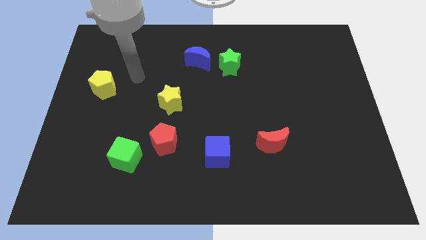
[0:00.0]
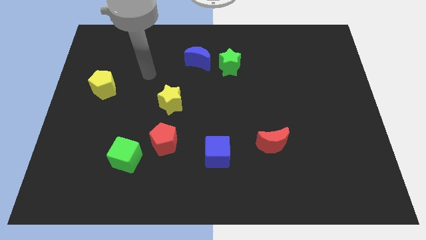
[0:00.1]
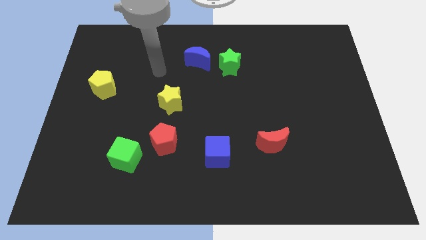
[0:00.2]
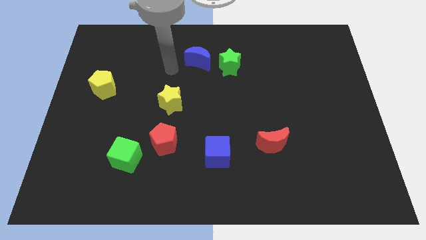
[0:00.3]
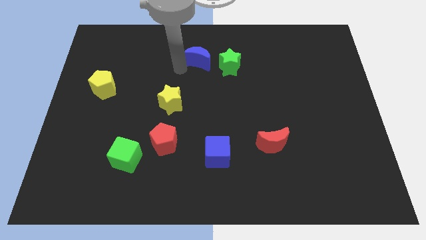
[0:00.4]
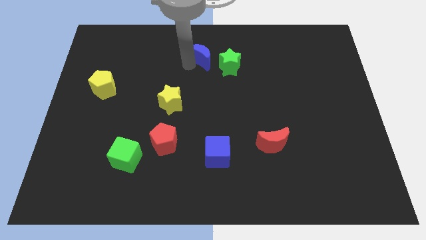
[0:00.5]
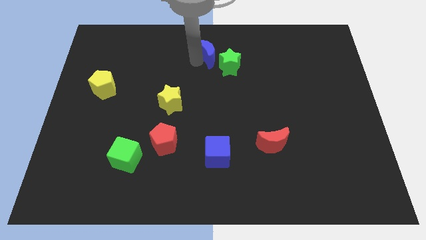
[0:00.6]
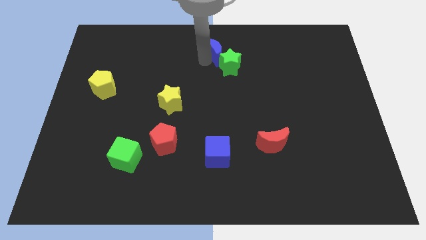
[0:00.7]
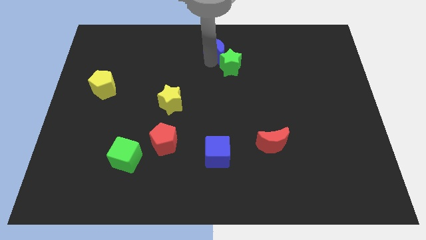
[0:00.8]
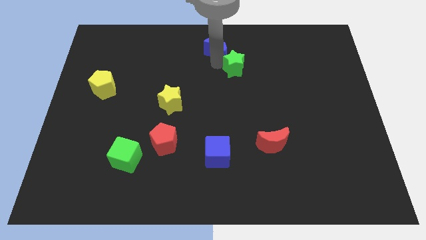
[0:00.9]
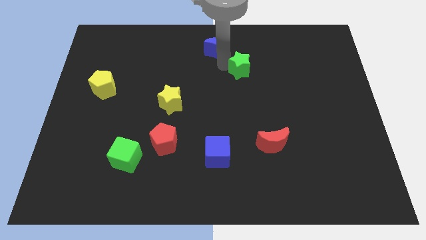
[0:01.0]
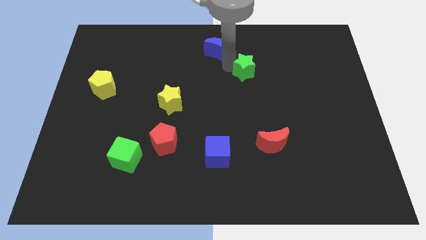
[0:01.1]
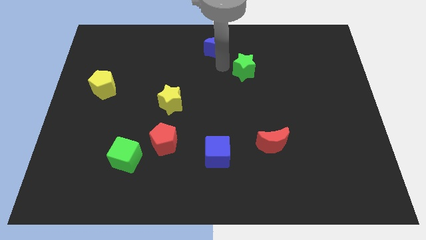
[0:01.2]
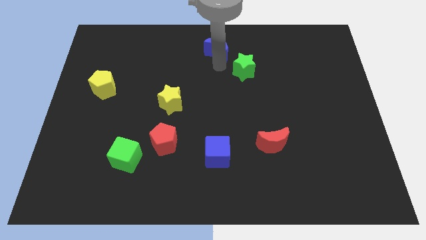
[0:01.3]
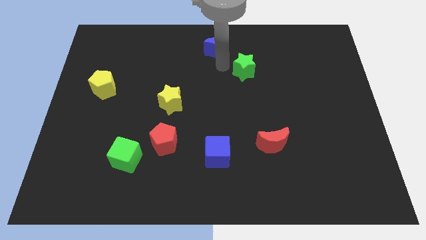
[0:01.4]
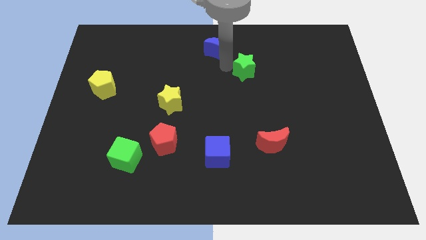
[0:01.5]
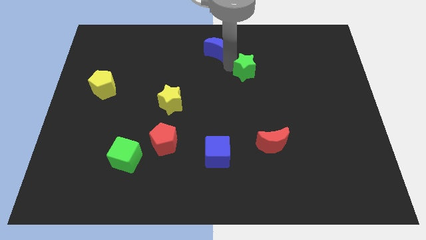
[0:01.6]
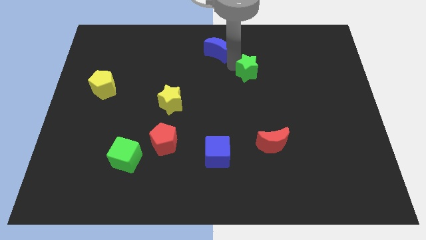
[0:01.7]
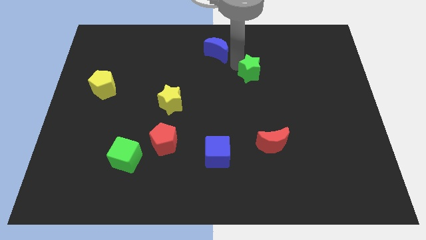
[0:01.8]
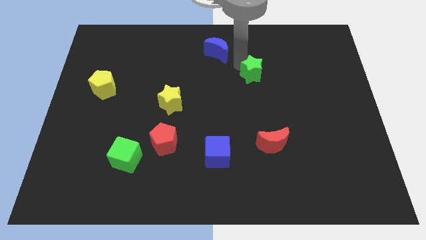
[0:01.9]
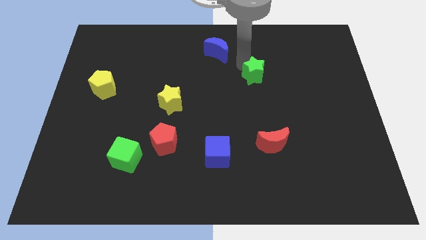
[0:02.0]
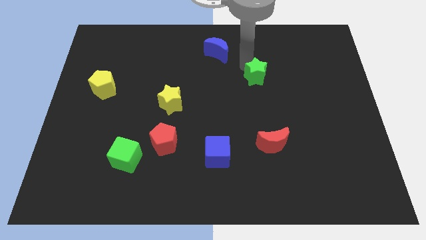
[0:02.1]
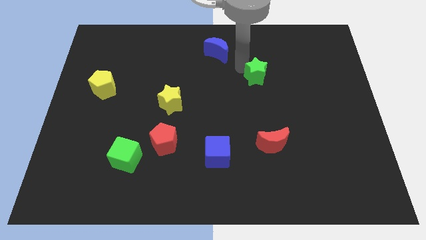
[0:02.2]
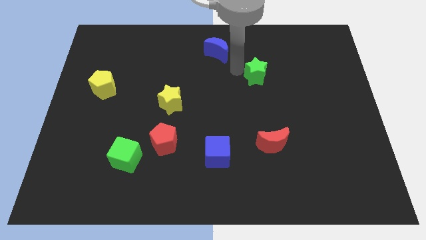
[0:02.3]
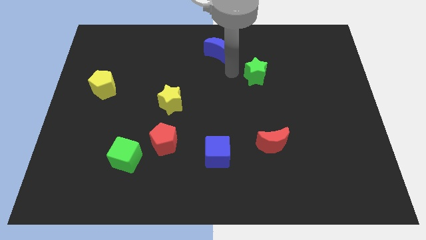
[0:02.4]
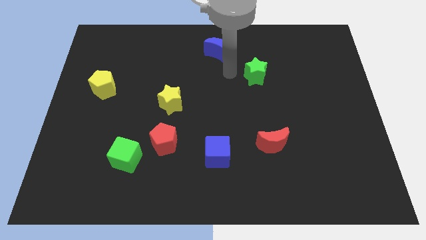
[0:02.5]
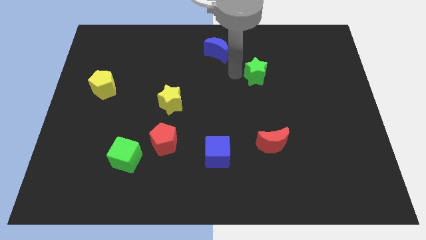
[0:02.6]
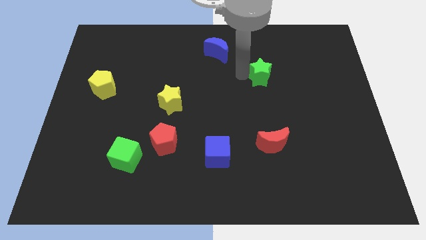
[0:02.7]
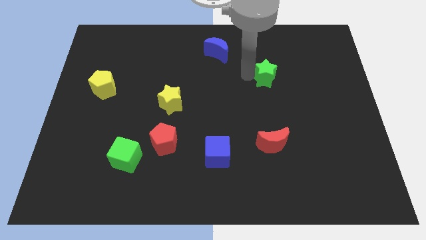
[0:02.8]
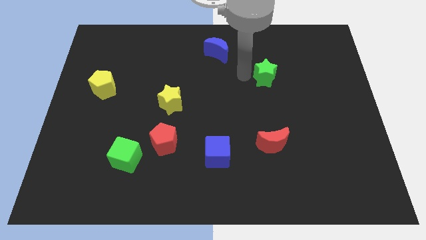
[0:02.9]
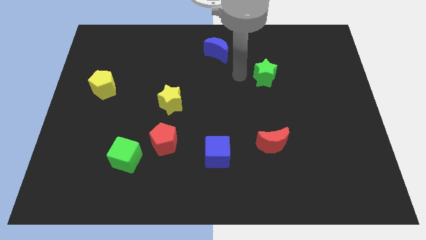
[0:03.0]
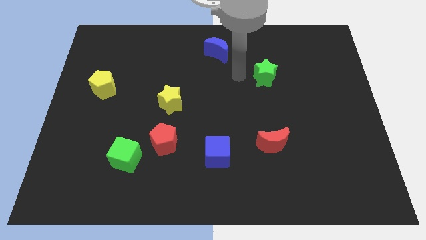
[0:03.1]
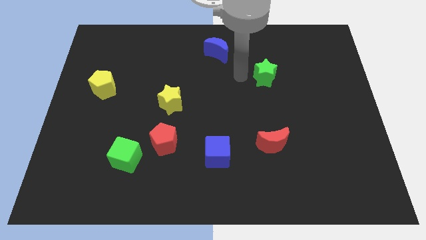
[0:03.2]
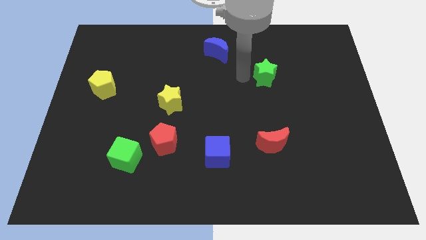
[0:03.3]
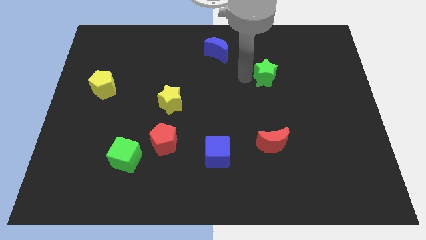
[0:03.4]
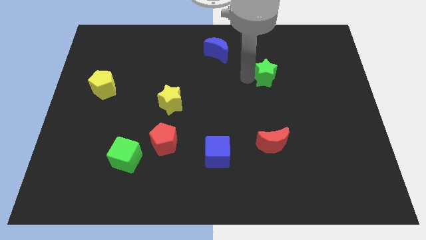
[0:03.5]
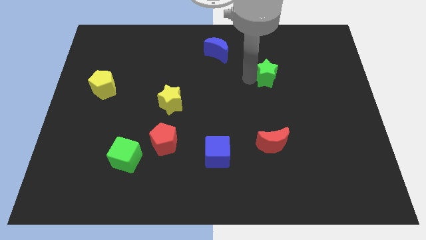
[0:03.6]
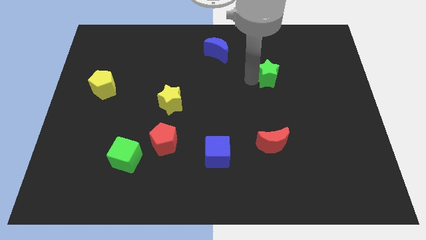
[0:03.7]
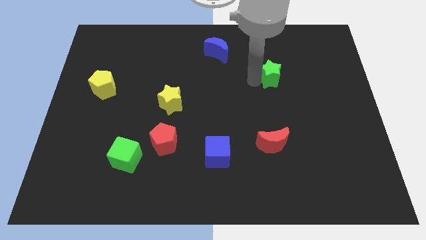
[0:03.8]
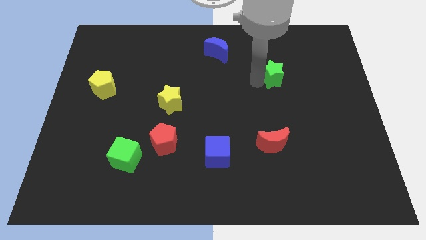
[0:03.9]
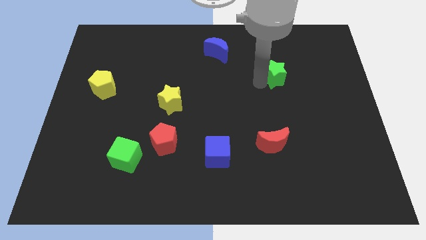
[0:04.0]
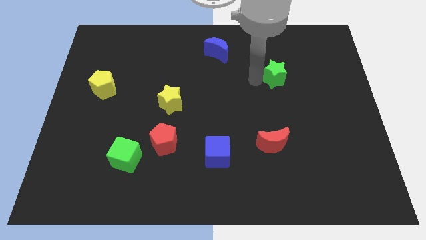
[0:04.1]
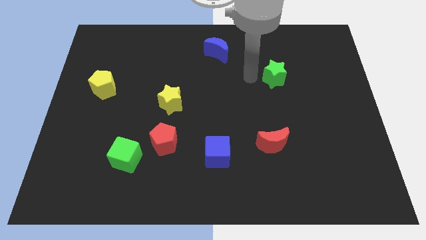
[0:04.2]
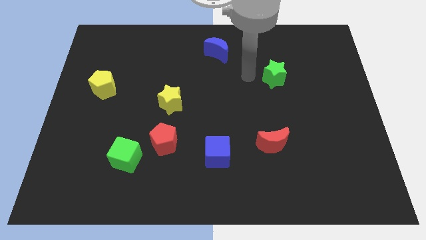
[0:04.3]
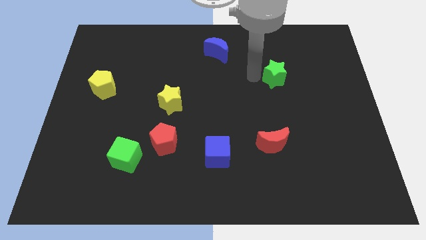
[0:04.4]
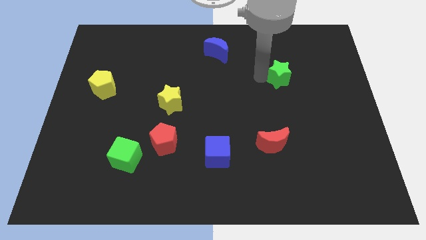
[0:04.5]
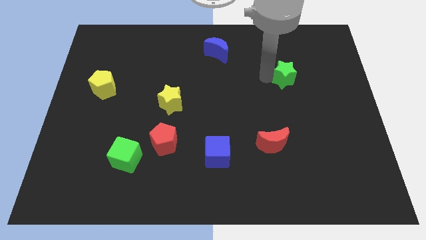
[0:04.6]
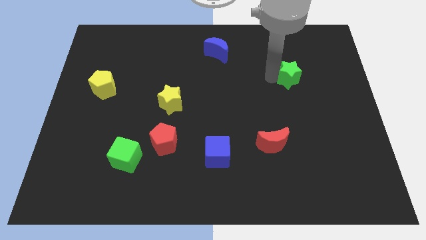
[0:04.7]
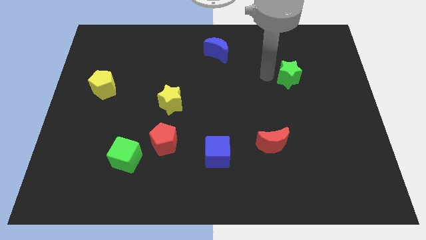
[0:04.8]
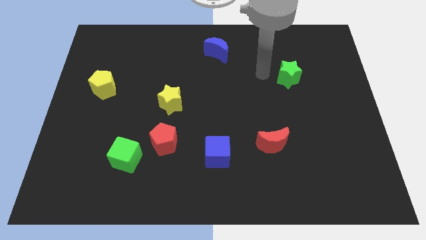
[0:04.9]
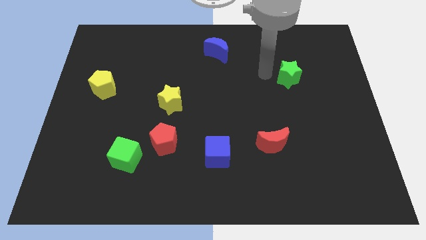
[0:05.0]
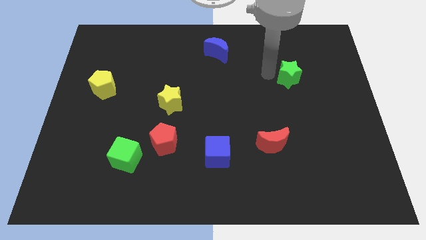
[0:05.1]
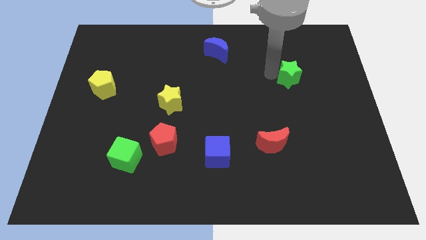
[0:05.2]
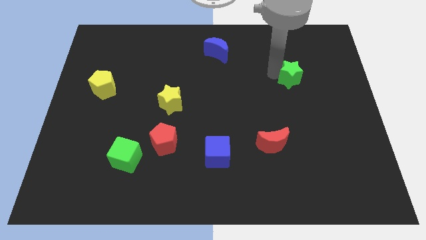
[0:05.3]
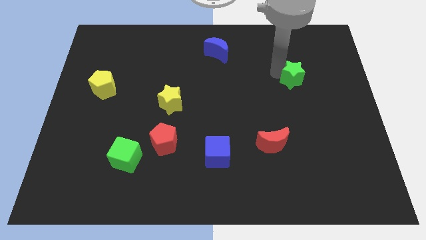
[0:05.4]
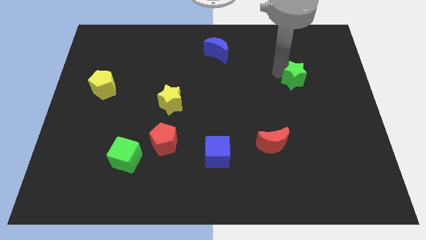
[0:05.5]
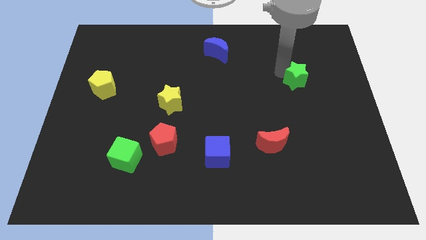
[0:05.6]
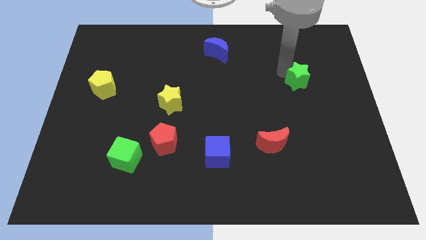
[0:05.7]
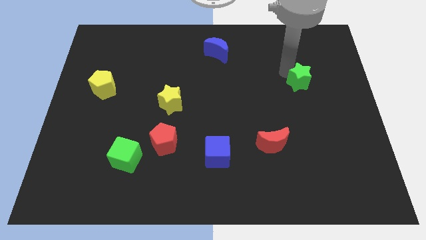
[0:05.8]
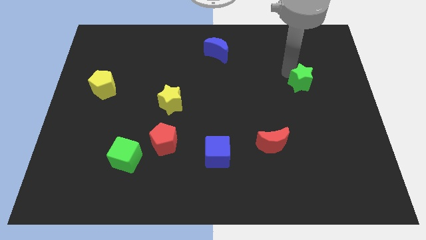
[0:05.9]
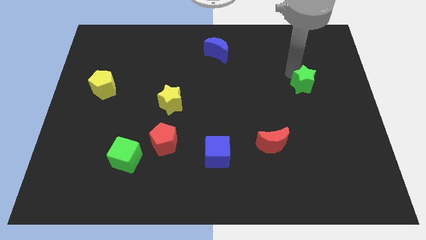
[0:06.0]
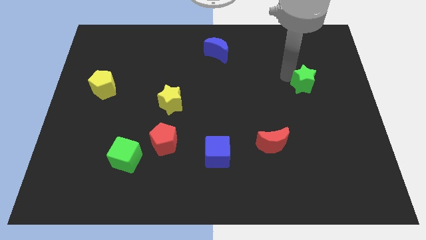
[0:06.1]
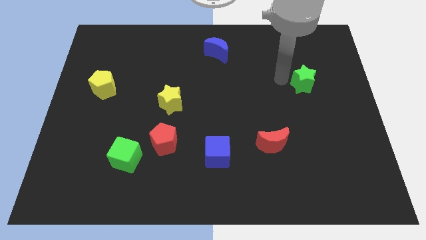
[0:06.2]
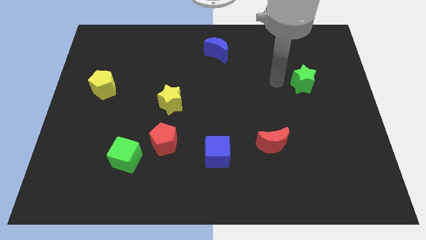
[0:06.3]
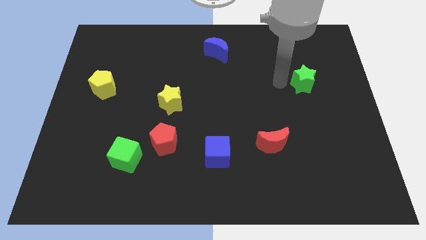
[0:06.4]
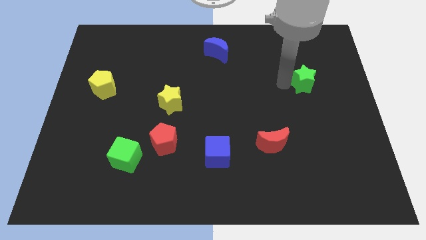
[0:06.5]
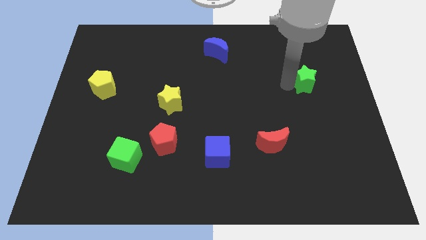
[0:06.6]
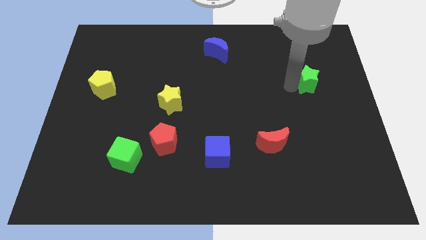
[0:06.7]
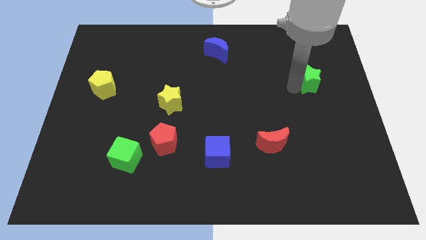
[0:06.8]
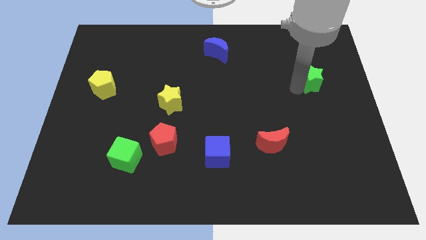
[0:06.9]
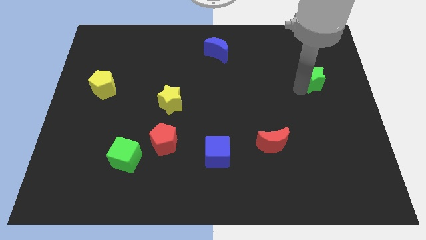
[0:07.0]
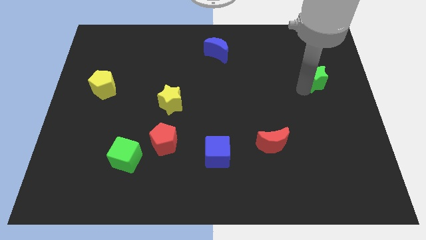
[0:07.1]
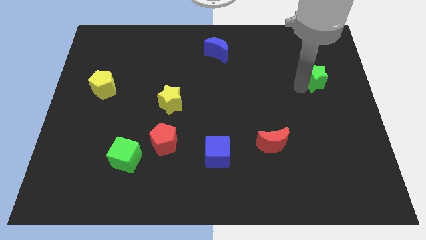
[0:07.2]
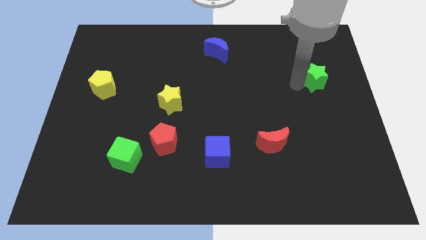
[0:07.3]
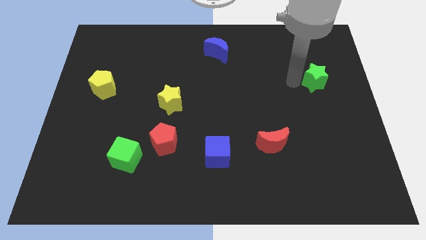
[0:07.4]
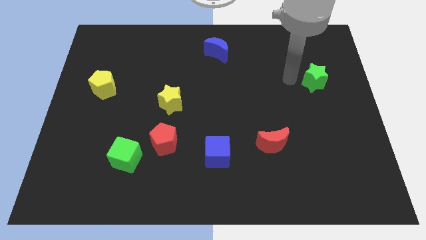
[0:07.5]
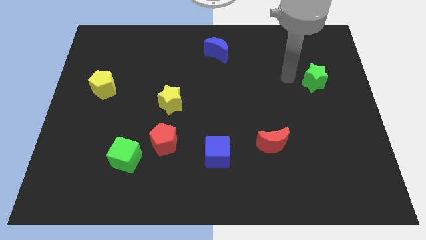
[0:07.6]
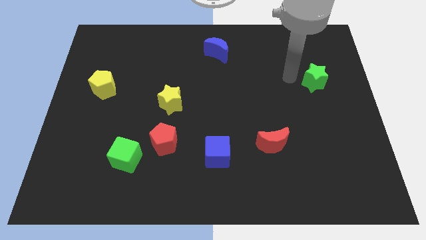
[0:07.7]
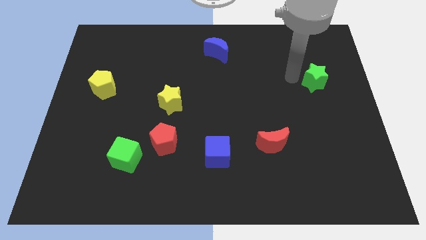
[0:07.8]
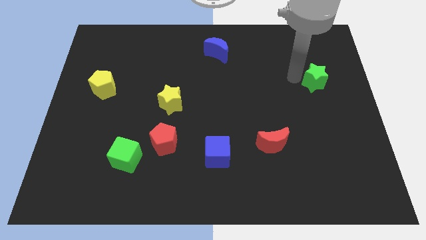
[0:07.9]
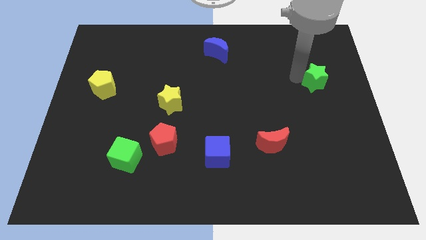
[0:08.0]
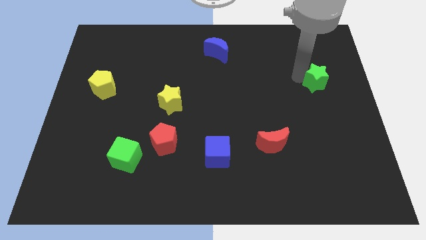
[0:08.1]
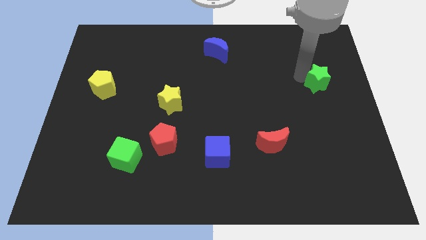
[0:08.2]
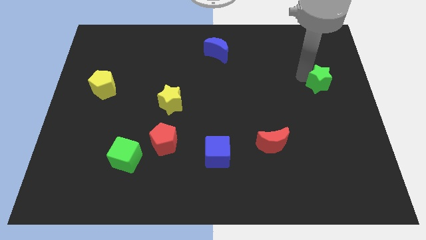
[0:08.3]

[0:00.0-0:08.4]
slide the green star to the right side
